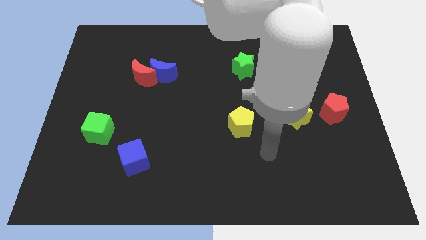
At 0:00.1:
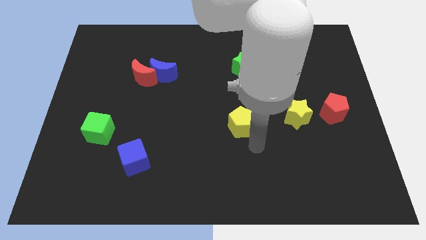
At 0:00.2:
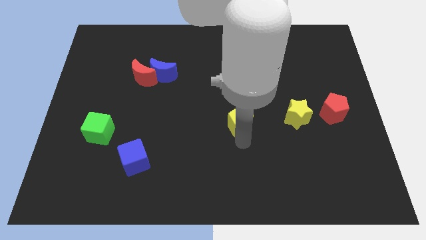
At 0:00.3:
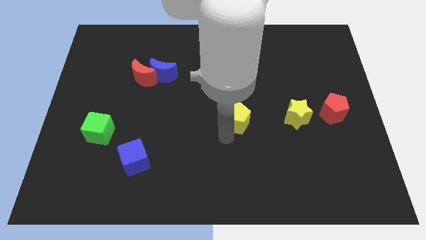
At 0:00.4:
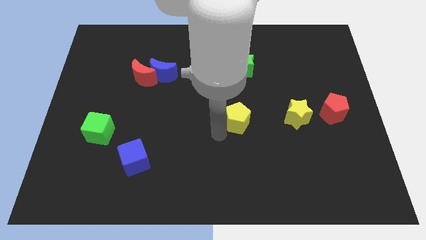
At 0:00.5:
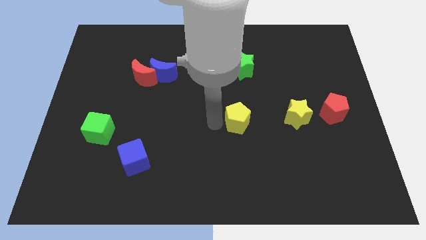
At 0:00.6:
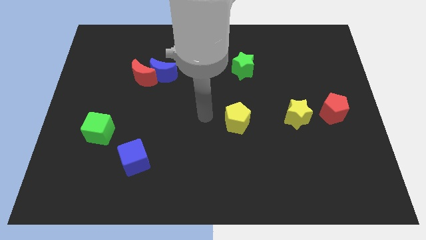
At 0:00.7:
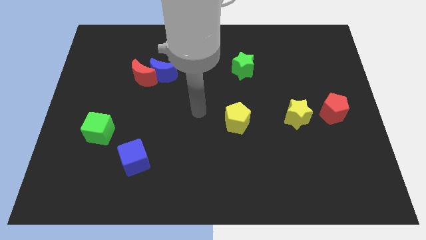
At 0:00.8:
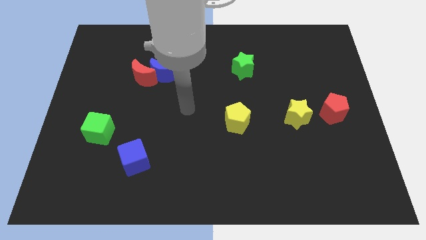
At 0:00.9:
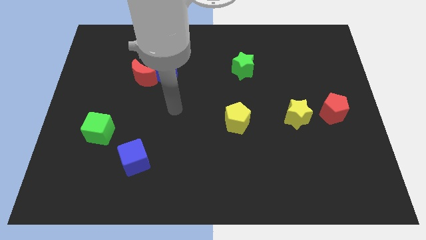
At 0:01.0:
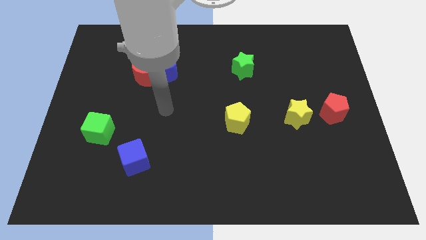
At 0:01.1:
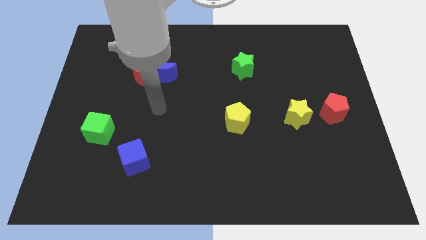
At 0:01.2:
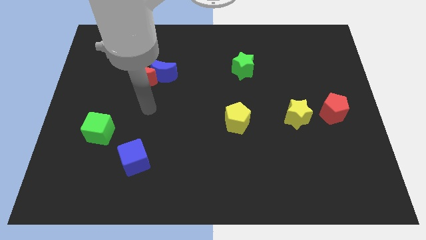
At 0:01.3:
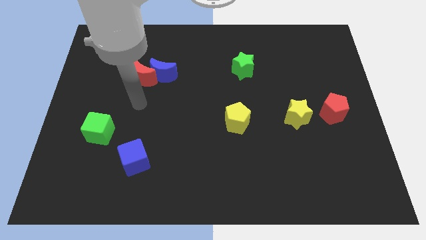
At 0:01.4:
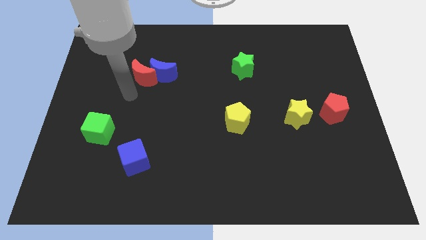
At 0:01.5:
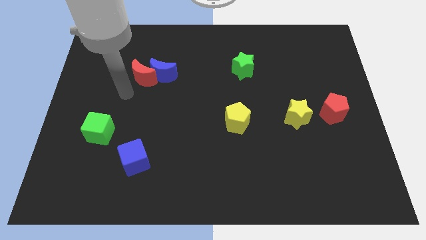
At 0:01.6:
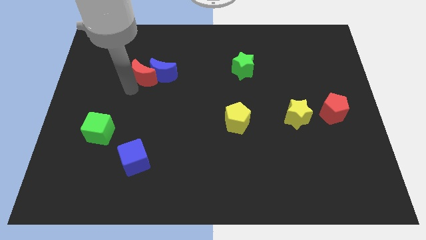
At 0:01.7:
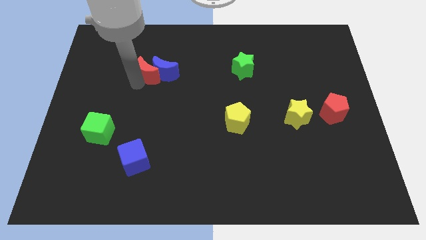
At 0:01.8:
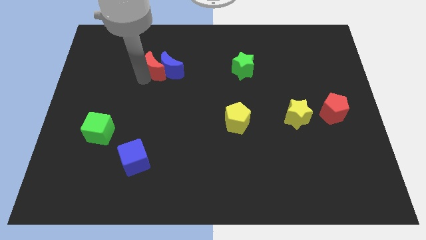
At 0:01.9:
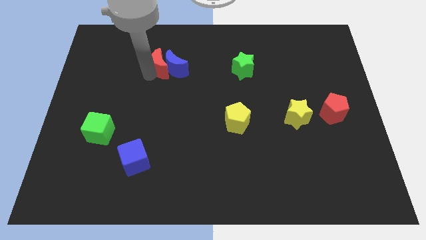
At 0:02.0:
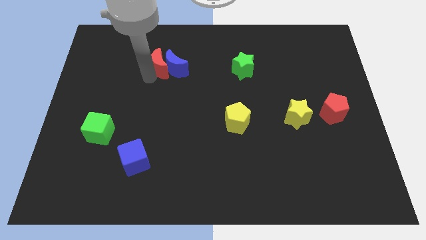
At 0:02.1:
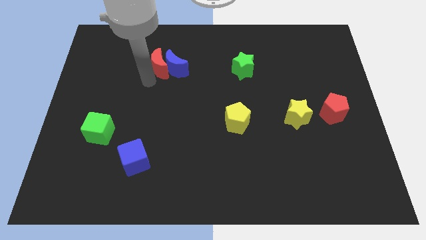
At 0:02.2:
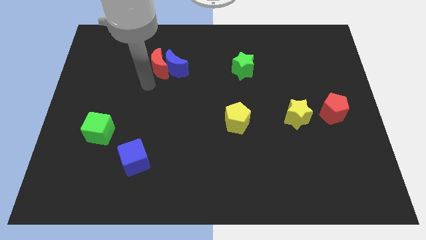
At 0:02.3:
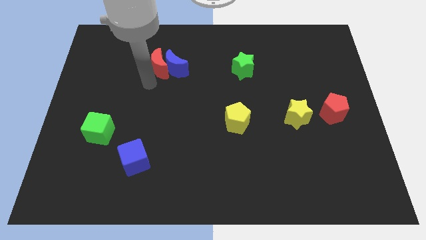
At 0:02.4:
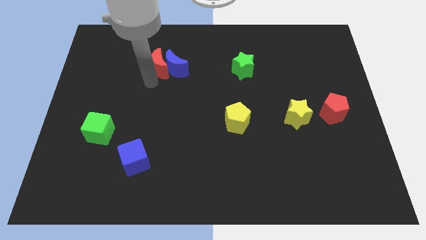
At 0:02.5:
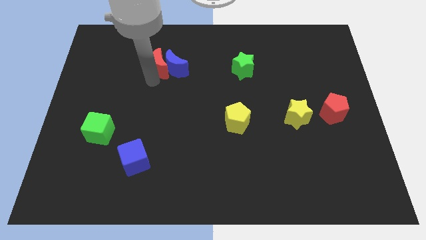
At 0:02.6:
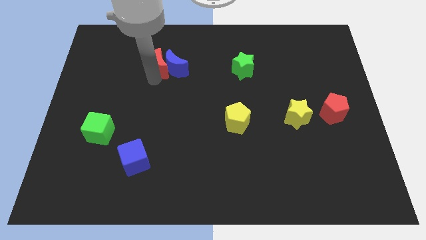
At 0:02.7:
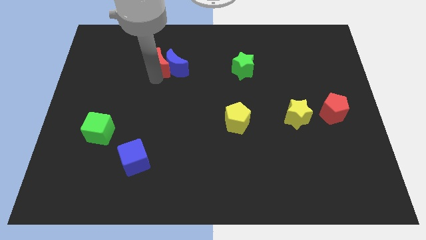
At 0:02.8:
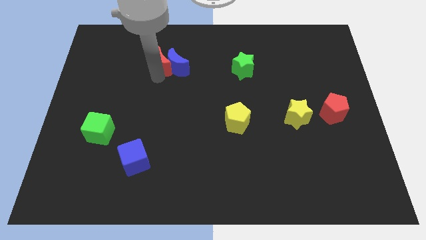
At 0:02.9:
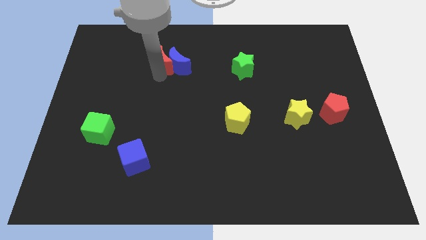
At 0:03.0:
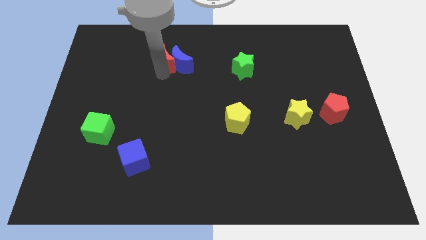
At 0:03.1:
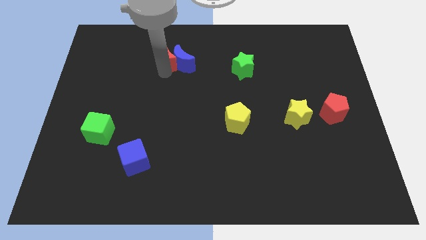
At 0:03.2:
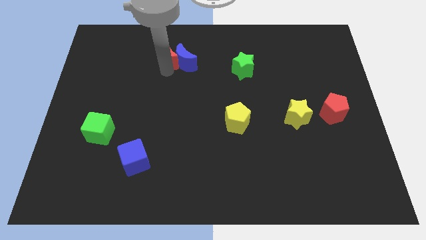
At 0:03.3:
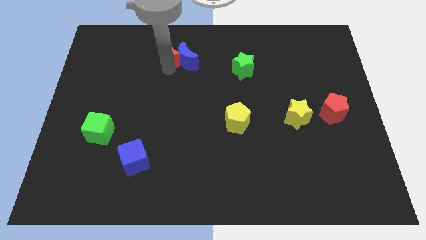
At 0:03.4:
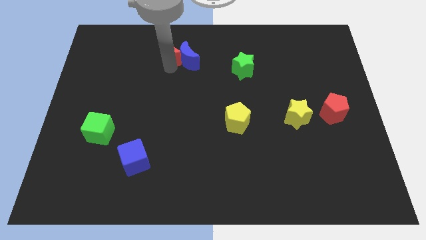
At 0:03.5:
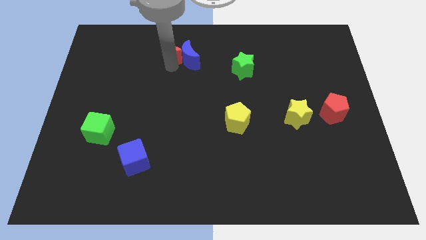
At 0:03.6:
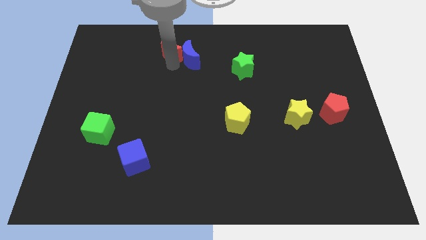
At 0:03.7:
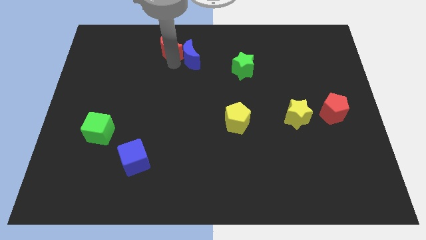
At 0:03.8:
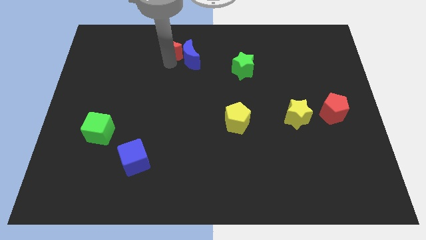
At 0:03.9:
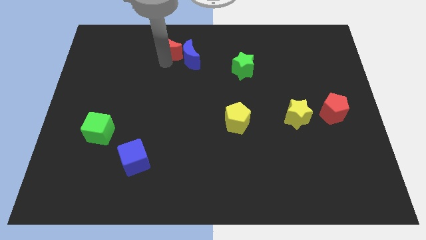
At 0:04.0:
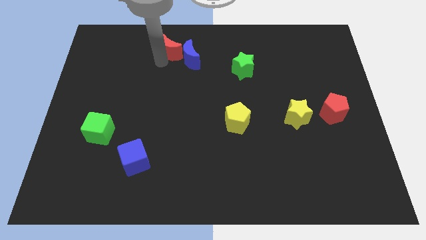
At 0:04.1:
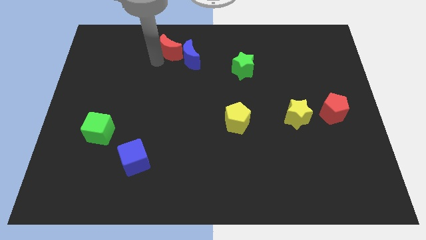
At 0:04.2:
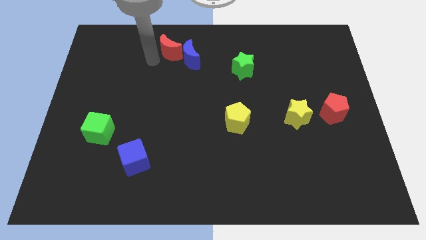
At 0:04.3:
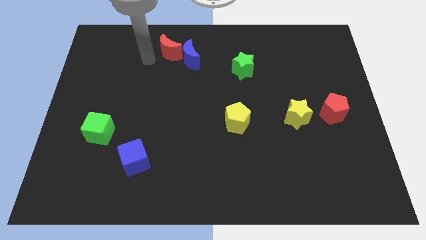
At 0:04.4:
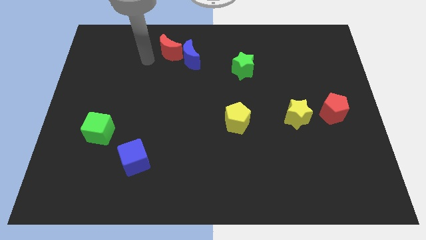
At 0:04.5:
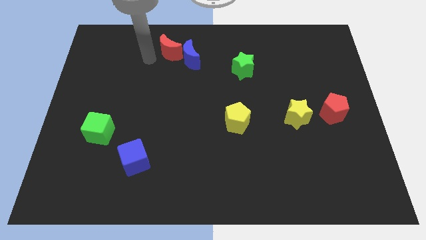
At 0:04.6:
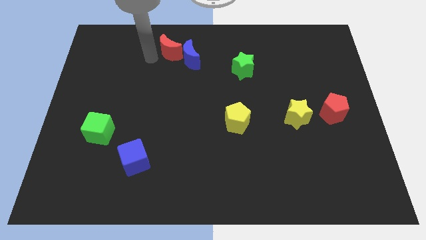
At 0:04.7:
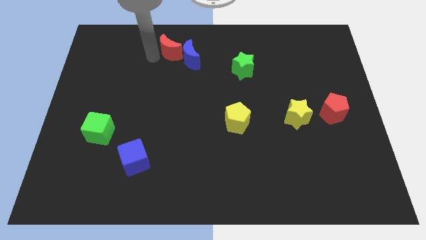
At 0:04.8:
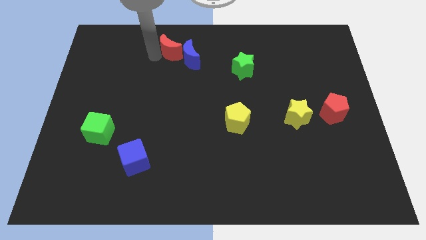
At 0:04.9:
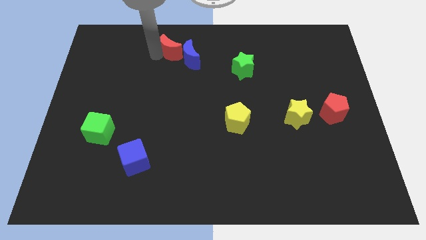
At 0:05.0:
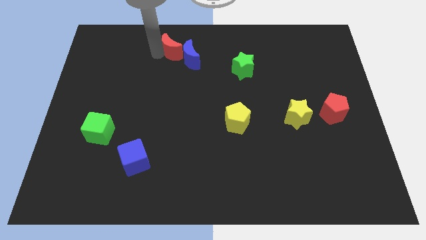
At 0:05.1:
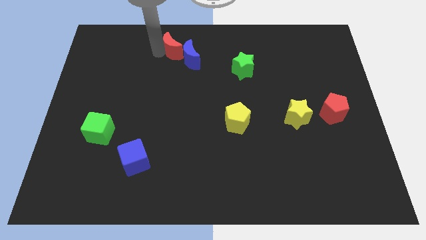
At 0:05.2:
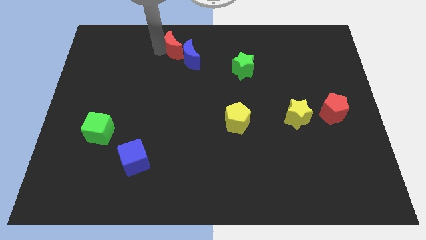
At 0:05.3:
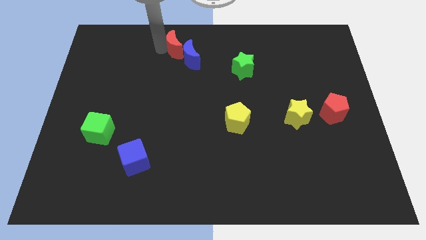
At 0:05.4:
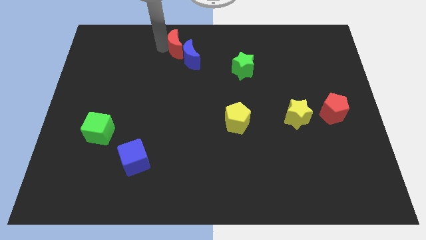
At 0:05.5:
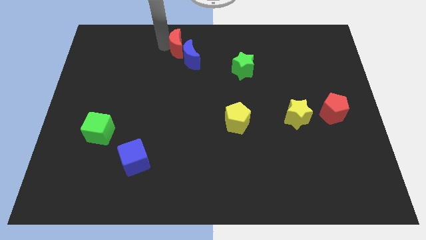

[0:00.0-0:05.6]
push the red moon to the towards your base

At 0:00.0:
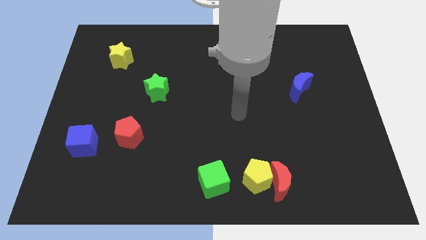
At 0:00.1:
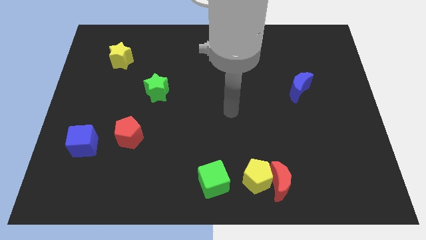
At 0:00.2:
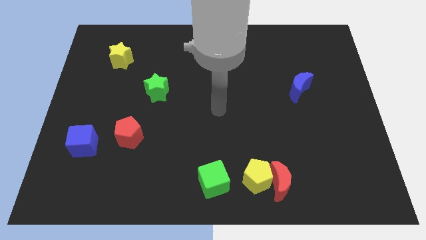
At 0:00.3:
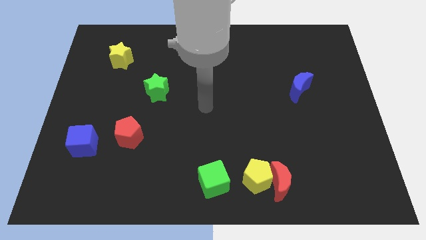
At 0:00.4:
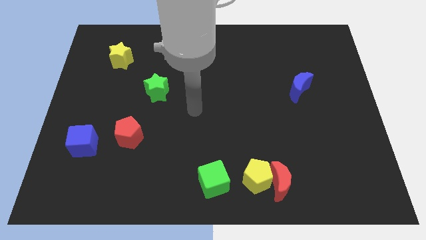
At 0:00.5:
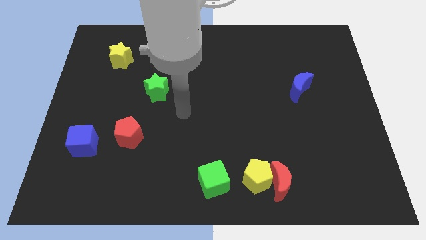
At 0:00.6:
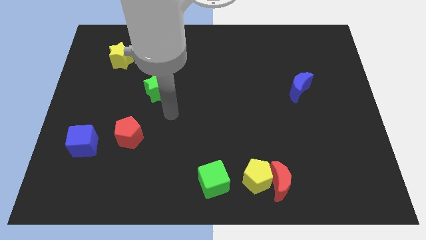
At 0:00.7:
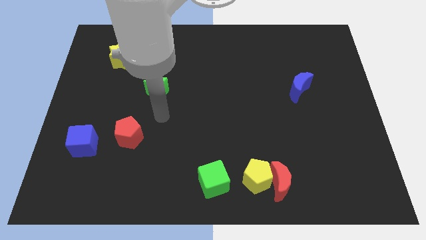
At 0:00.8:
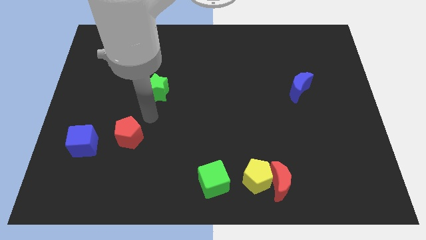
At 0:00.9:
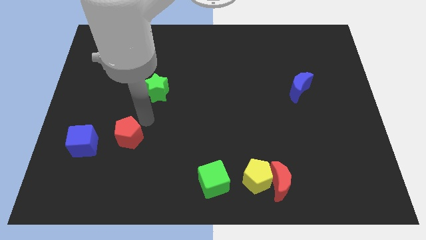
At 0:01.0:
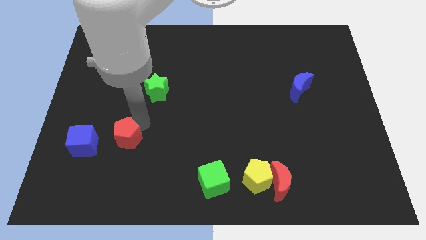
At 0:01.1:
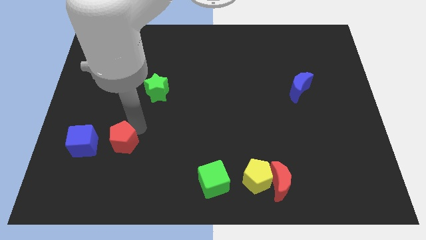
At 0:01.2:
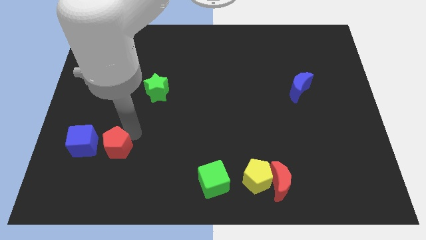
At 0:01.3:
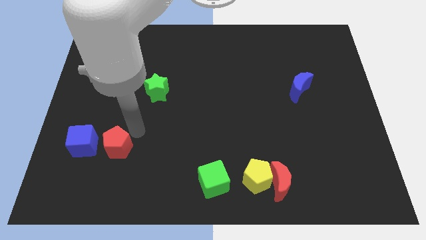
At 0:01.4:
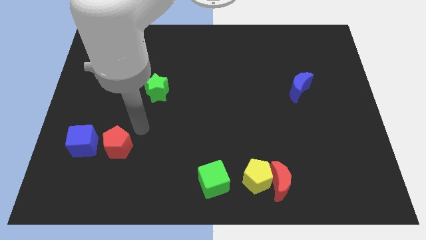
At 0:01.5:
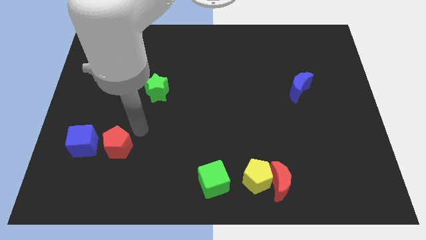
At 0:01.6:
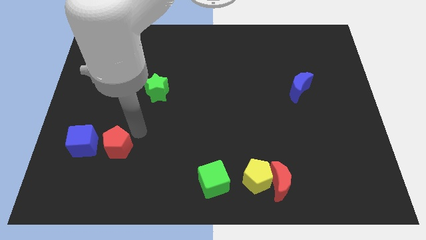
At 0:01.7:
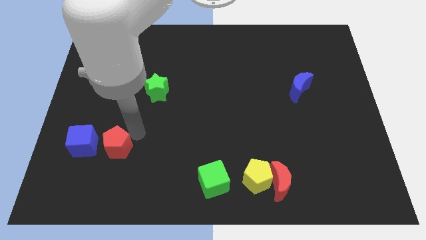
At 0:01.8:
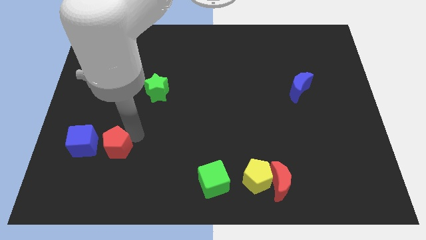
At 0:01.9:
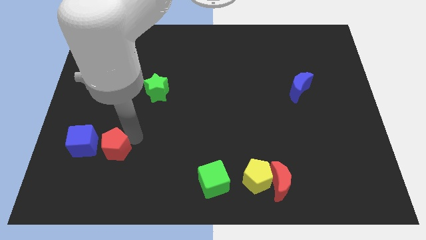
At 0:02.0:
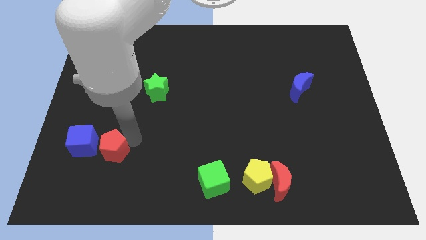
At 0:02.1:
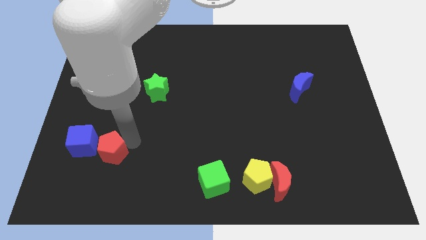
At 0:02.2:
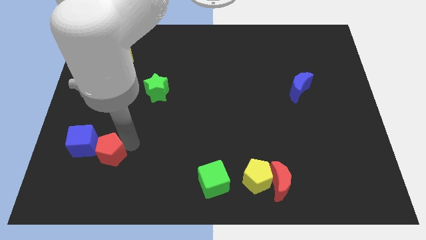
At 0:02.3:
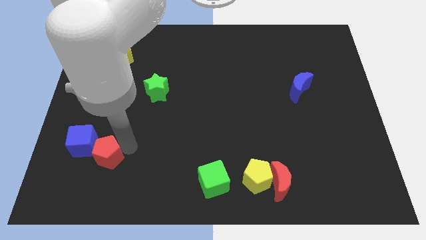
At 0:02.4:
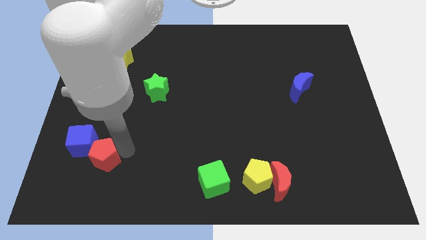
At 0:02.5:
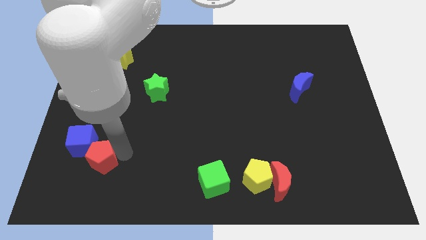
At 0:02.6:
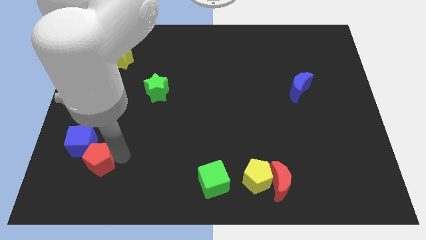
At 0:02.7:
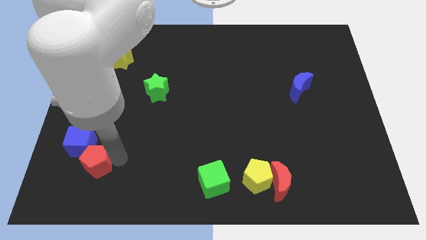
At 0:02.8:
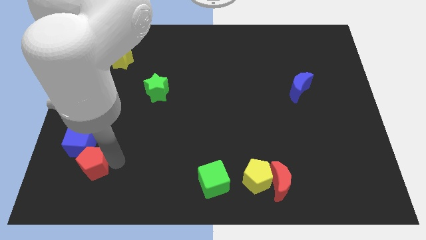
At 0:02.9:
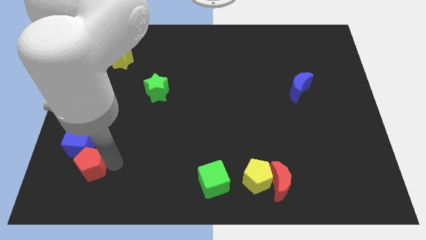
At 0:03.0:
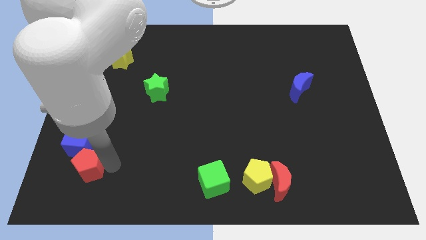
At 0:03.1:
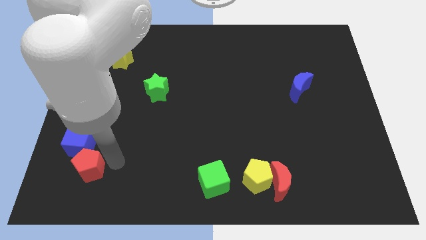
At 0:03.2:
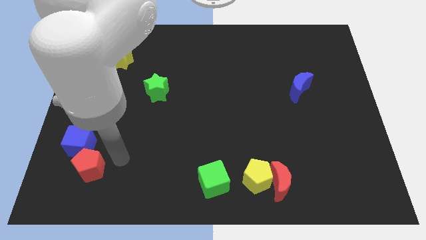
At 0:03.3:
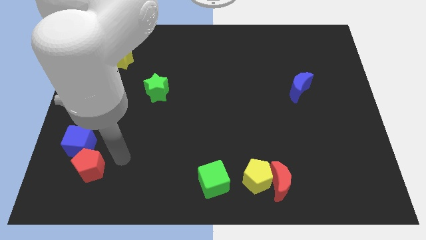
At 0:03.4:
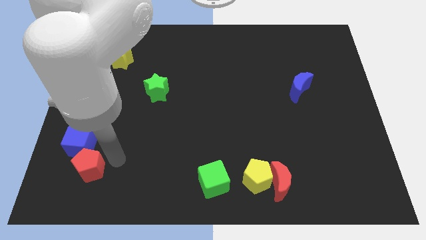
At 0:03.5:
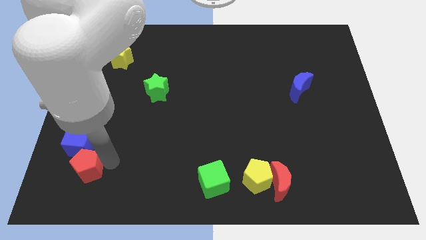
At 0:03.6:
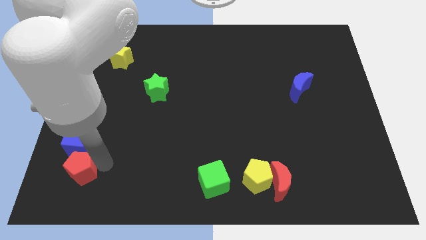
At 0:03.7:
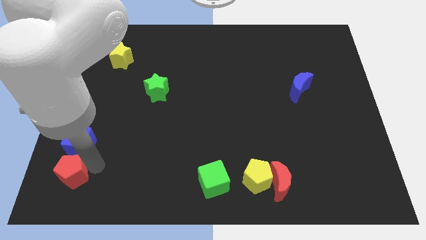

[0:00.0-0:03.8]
push the red pentagon to the lower left corner
